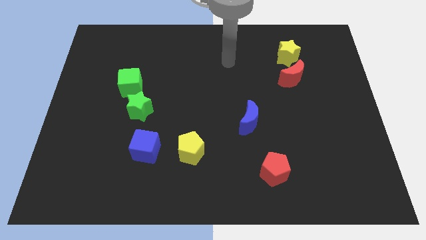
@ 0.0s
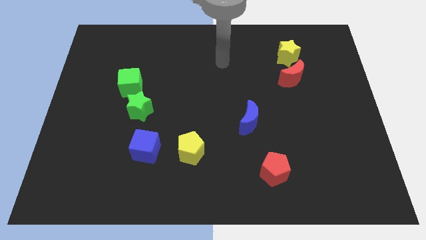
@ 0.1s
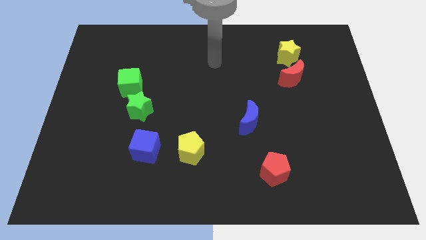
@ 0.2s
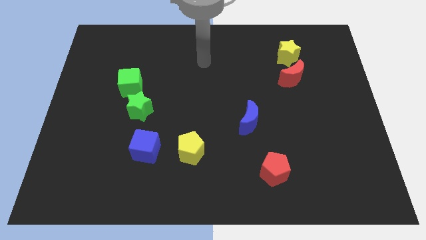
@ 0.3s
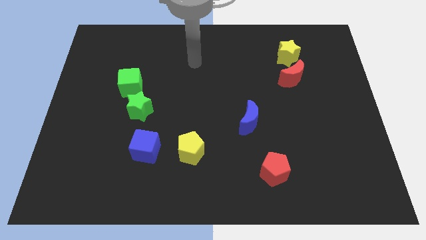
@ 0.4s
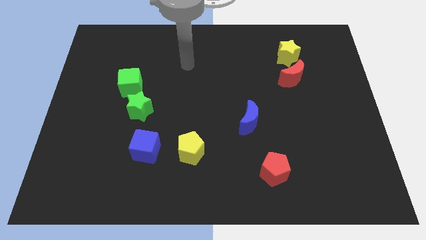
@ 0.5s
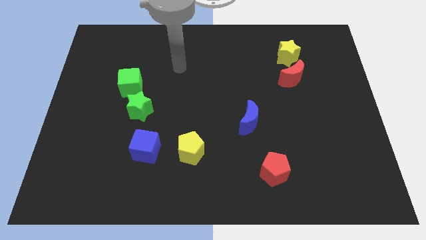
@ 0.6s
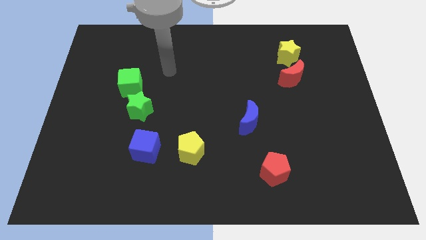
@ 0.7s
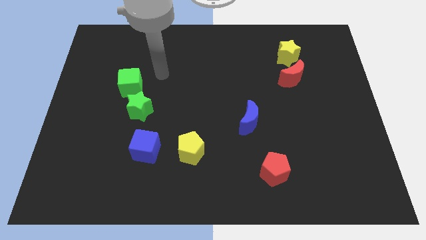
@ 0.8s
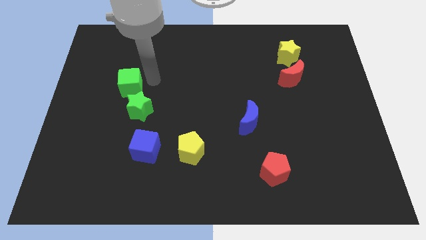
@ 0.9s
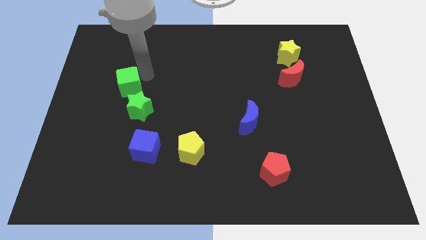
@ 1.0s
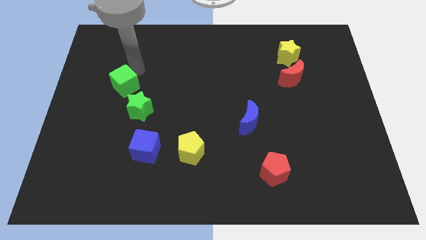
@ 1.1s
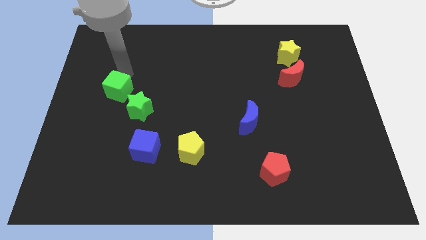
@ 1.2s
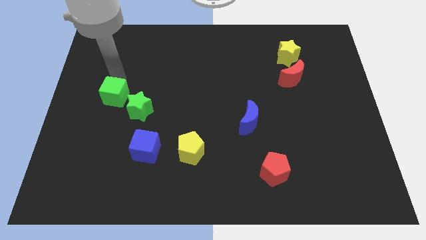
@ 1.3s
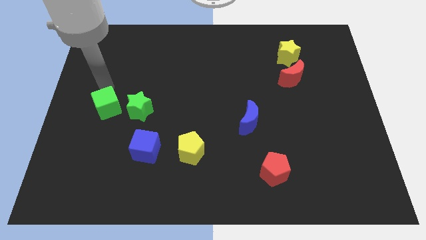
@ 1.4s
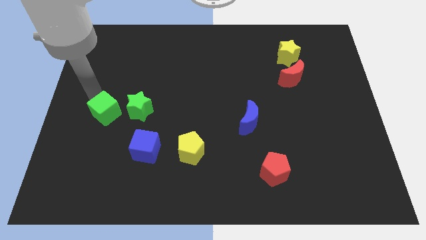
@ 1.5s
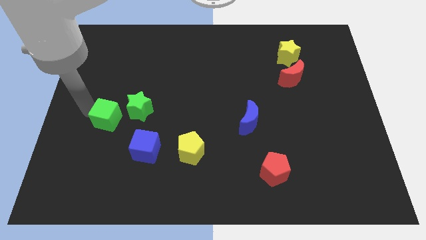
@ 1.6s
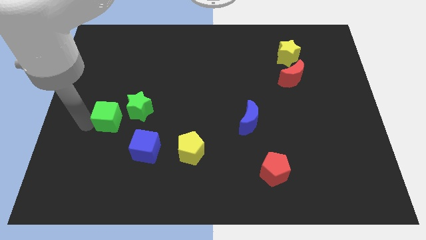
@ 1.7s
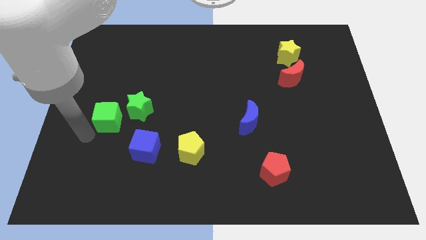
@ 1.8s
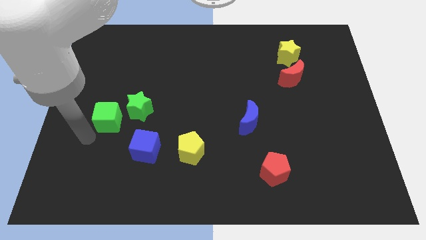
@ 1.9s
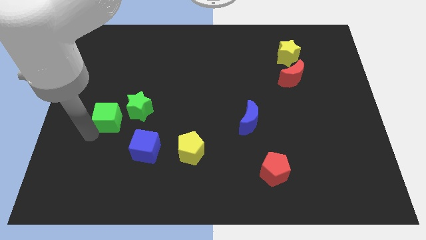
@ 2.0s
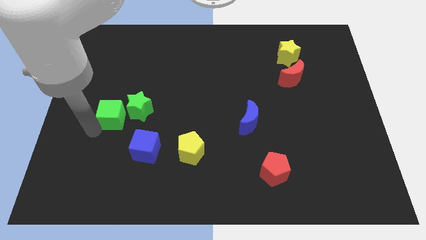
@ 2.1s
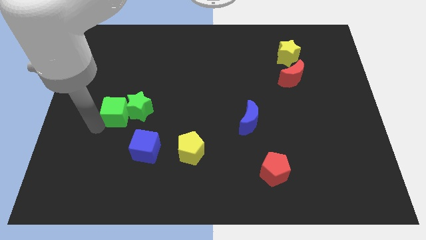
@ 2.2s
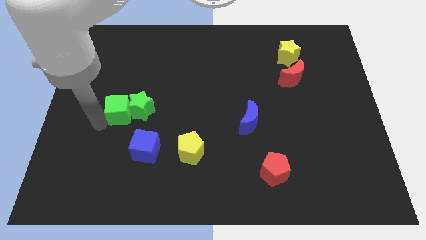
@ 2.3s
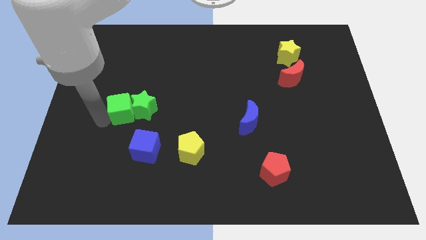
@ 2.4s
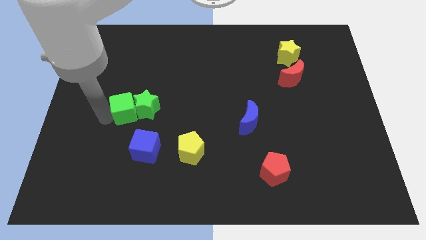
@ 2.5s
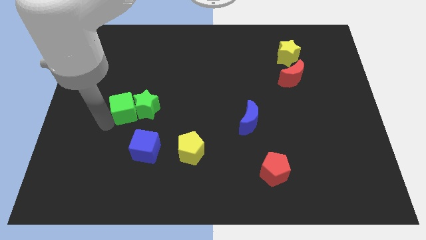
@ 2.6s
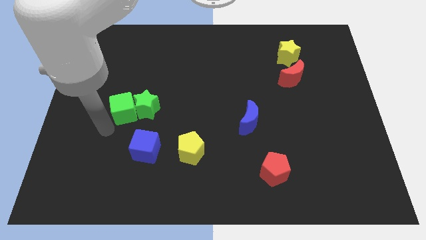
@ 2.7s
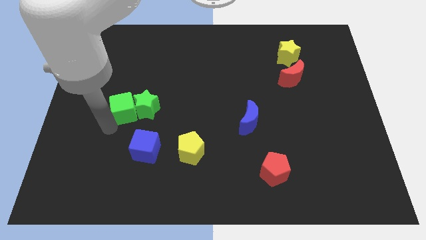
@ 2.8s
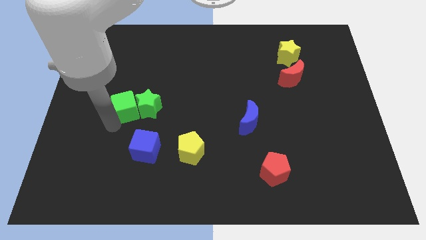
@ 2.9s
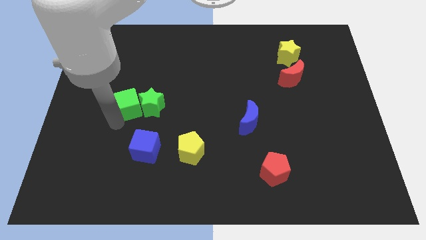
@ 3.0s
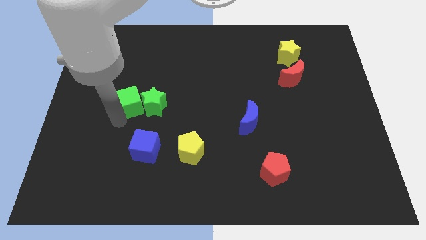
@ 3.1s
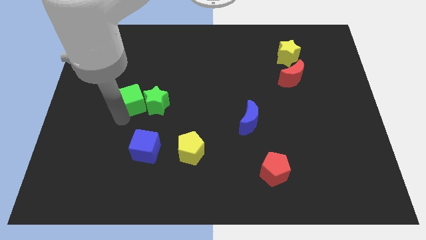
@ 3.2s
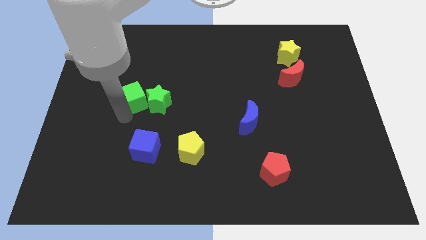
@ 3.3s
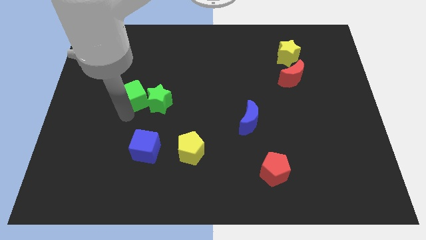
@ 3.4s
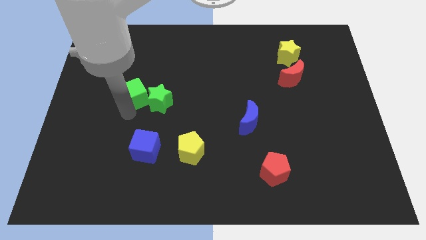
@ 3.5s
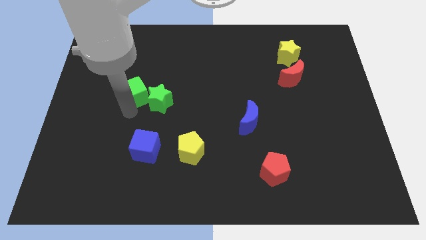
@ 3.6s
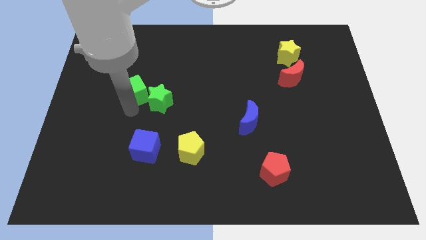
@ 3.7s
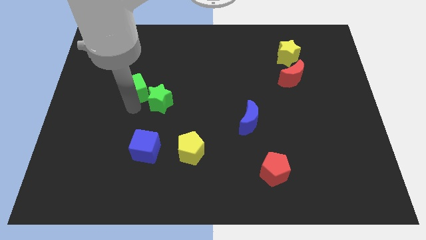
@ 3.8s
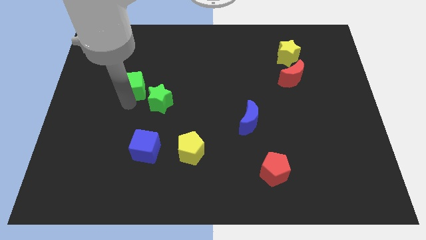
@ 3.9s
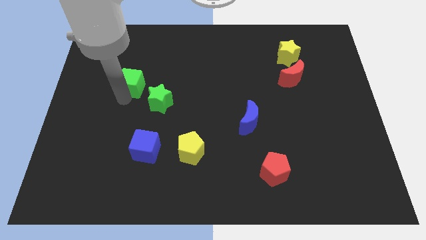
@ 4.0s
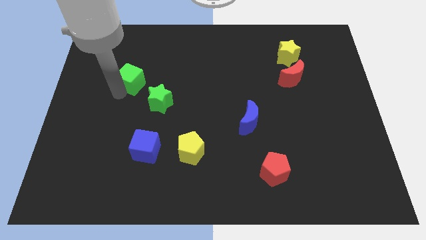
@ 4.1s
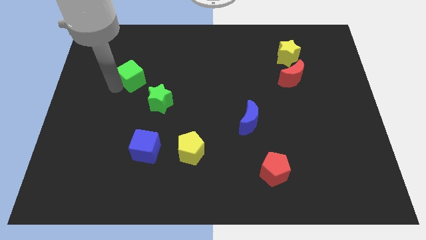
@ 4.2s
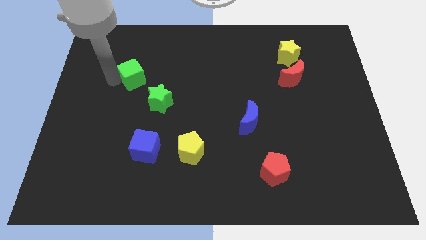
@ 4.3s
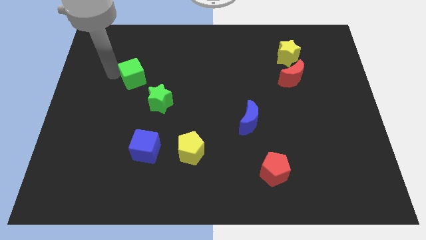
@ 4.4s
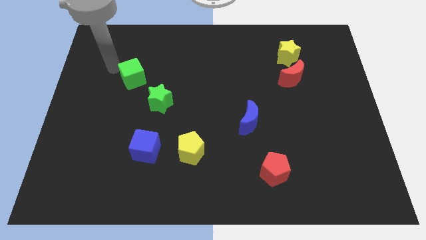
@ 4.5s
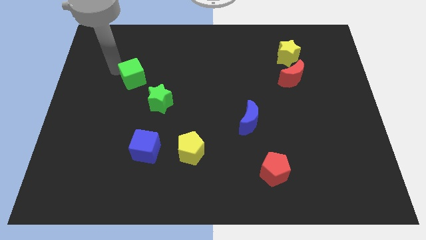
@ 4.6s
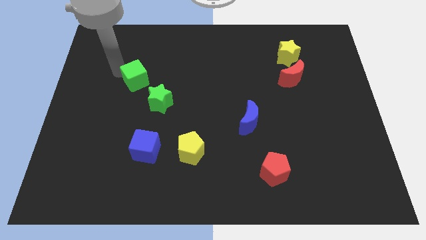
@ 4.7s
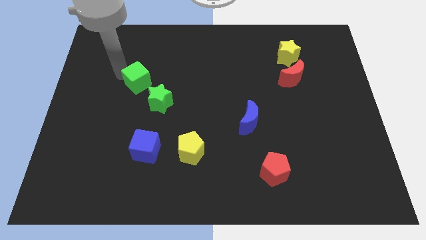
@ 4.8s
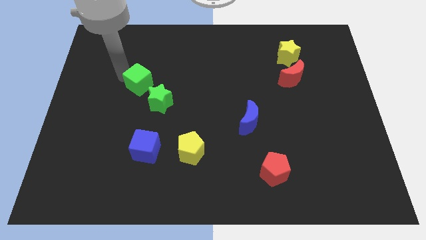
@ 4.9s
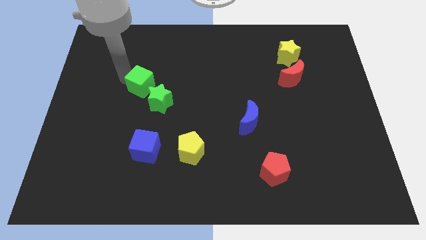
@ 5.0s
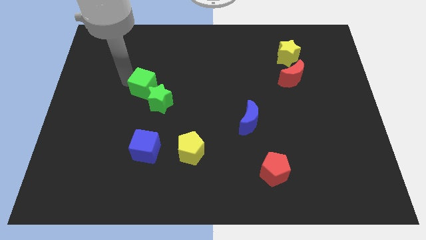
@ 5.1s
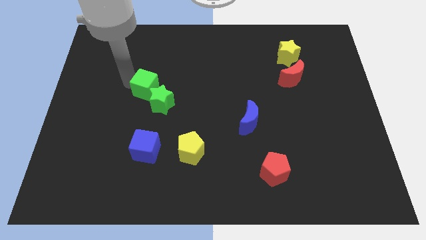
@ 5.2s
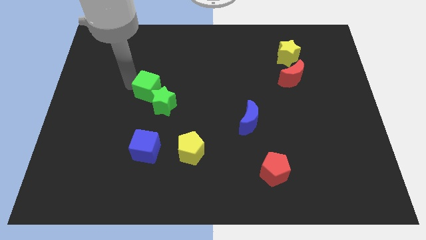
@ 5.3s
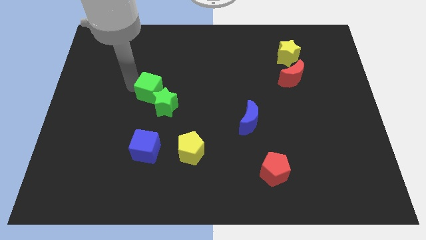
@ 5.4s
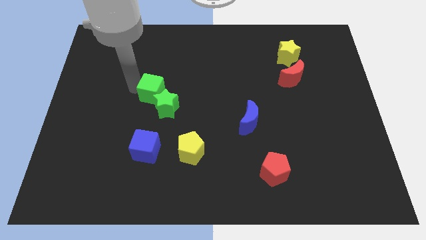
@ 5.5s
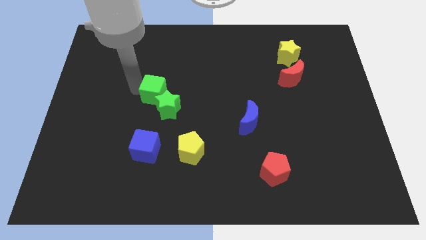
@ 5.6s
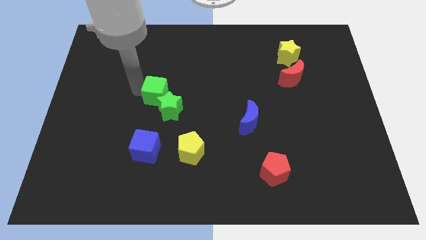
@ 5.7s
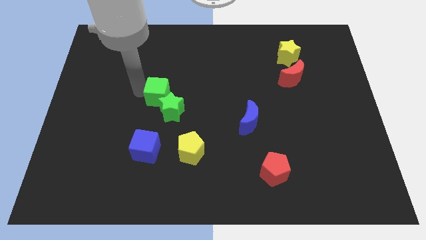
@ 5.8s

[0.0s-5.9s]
slide the green cube down and to the right somewhat

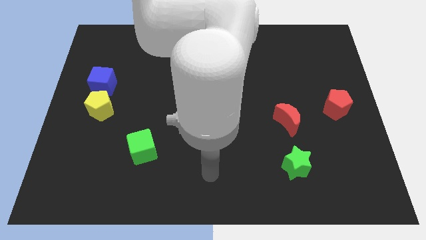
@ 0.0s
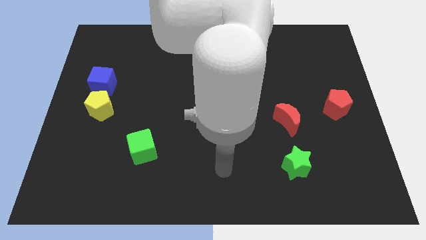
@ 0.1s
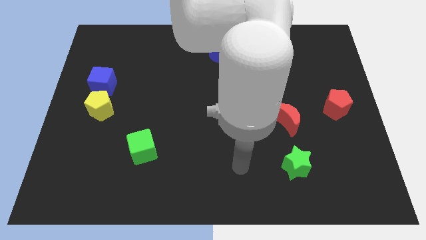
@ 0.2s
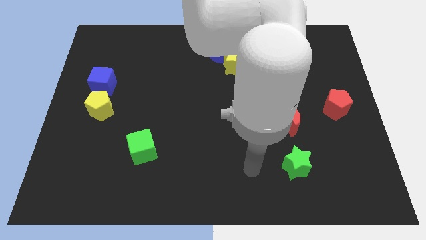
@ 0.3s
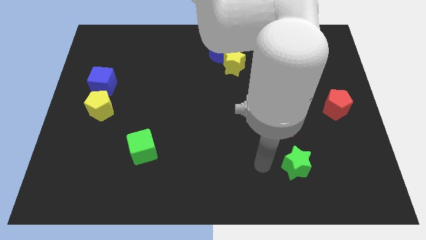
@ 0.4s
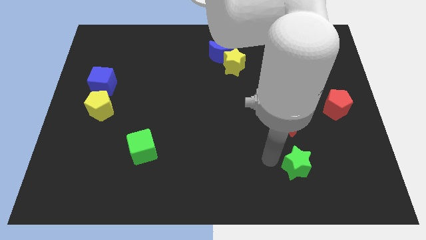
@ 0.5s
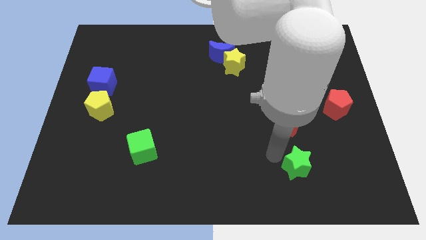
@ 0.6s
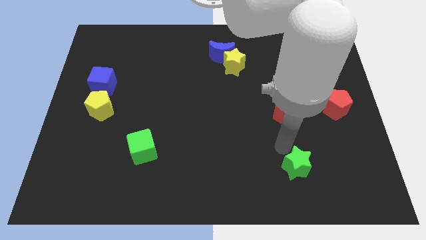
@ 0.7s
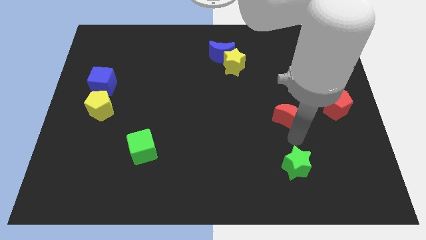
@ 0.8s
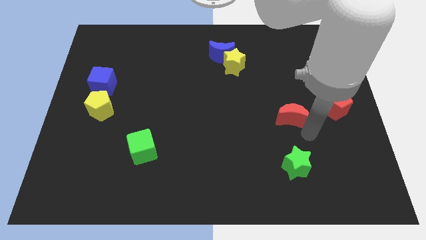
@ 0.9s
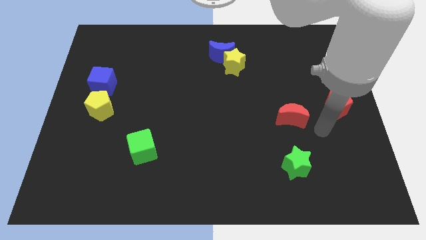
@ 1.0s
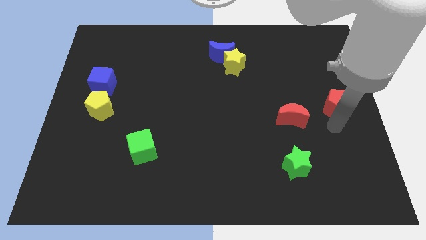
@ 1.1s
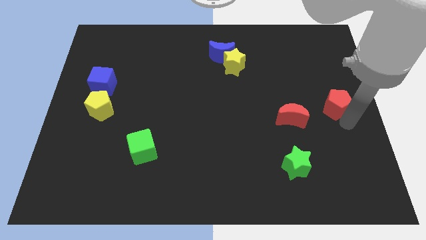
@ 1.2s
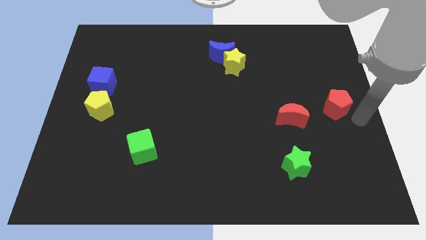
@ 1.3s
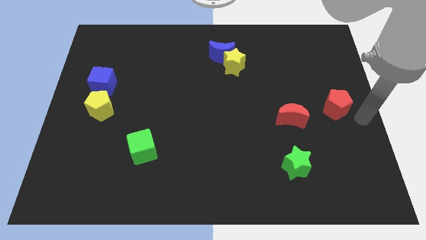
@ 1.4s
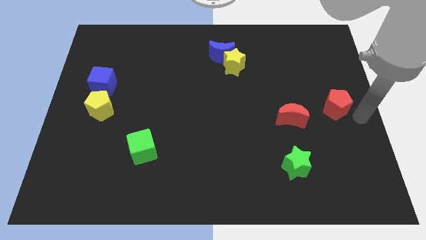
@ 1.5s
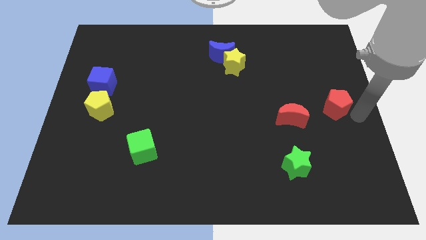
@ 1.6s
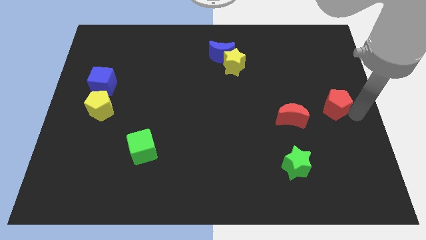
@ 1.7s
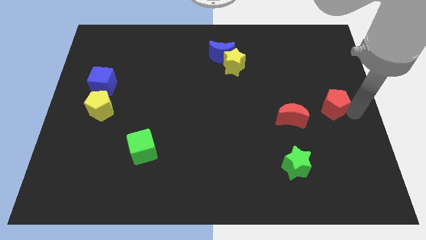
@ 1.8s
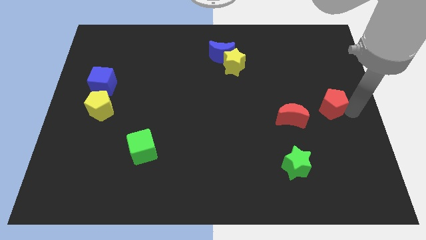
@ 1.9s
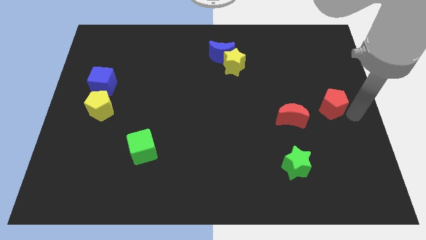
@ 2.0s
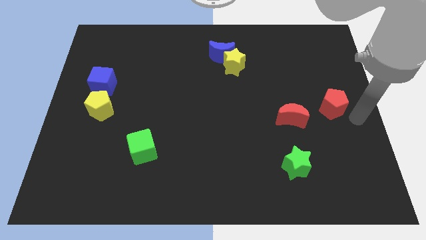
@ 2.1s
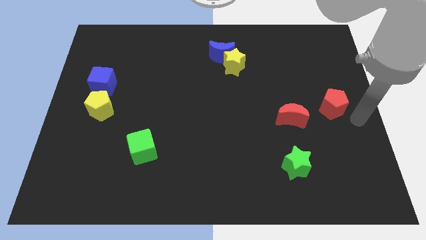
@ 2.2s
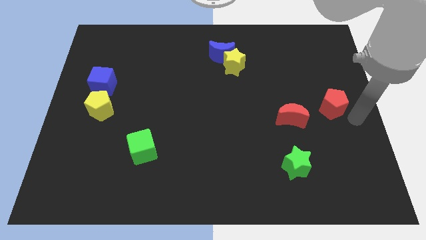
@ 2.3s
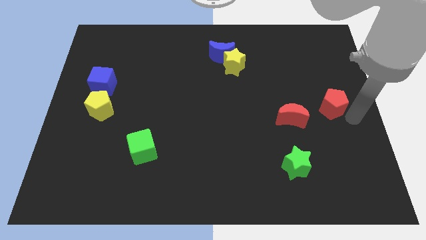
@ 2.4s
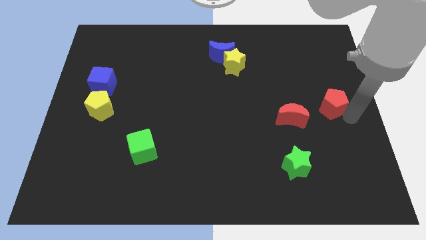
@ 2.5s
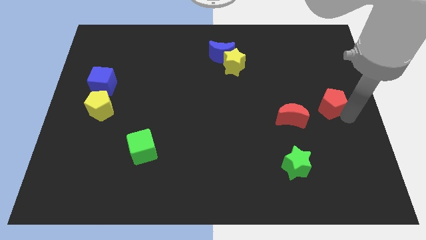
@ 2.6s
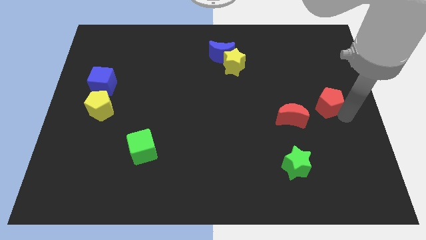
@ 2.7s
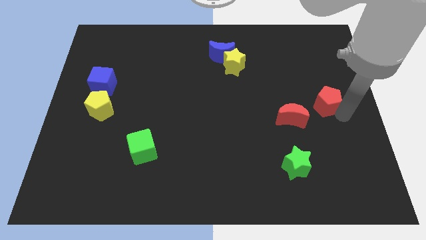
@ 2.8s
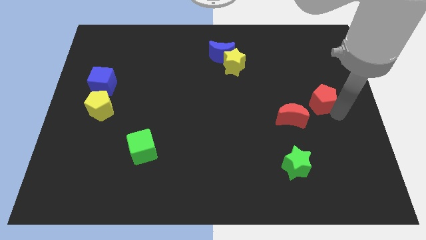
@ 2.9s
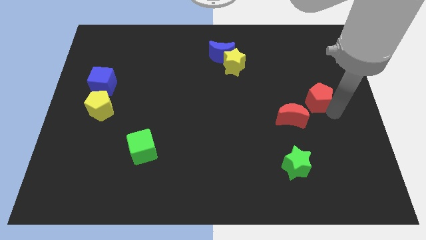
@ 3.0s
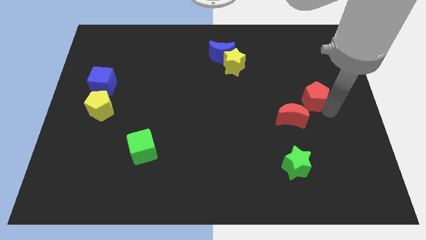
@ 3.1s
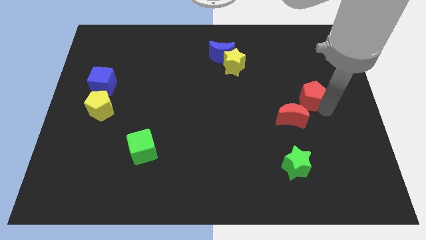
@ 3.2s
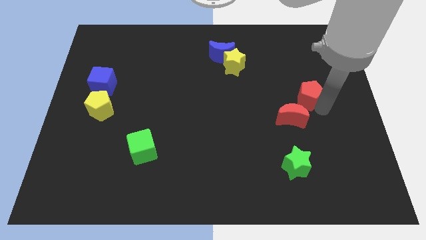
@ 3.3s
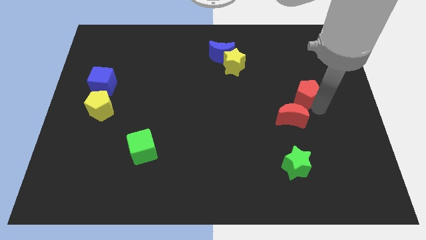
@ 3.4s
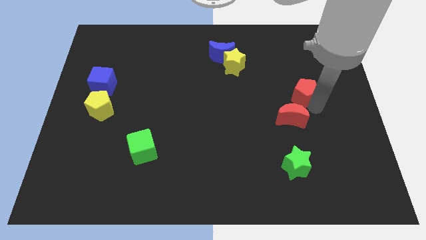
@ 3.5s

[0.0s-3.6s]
slightly move the red pentagon diagonally upwards and to the left
